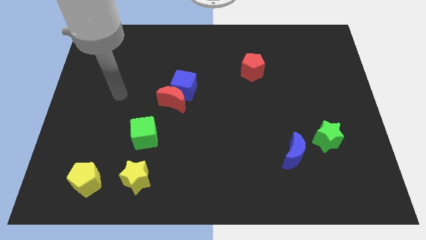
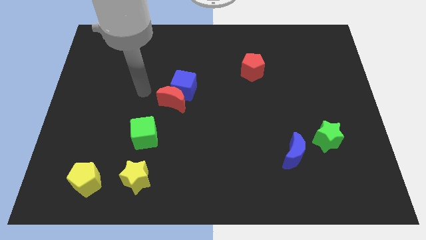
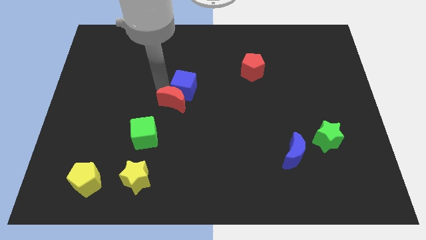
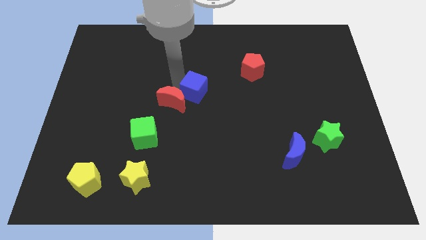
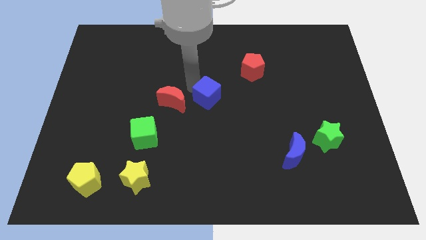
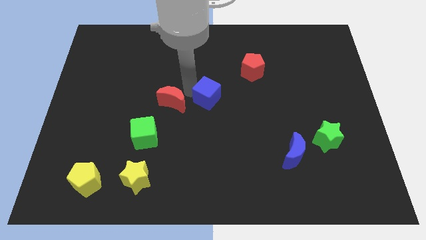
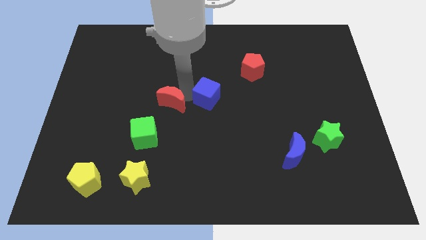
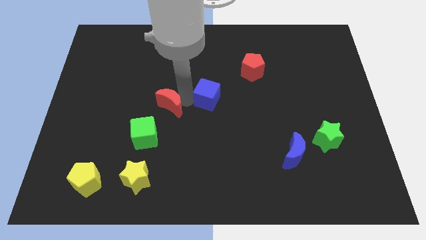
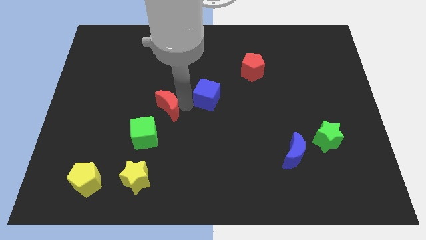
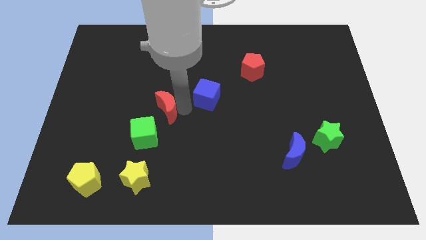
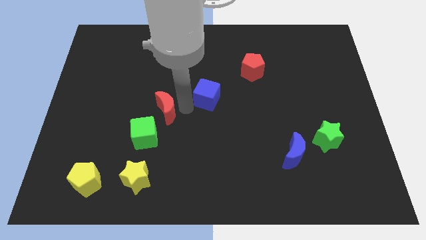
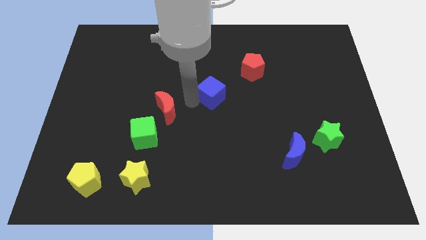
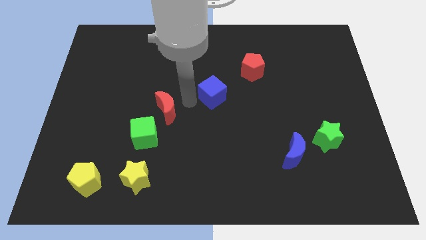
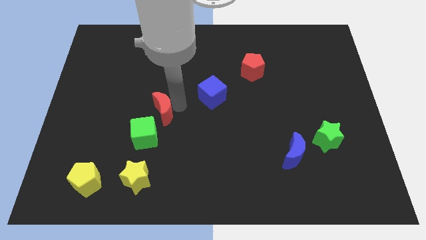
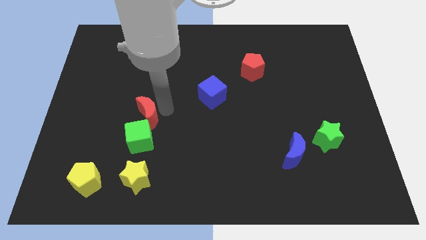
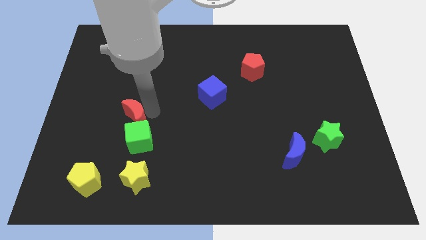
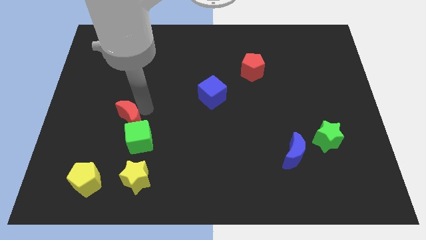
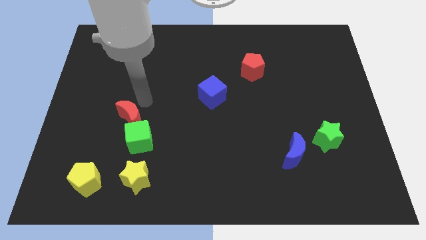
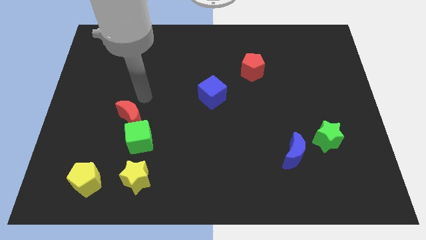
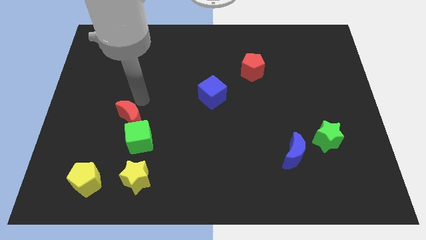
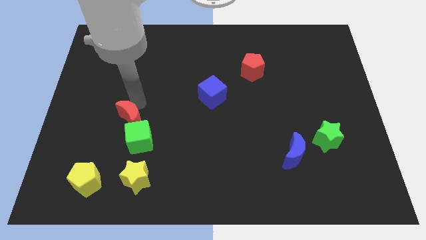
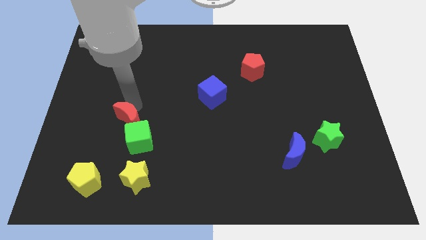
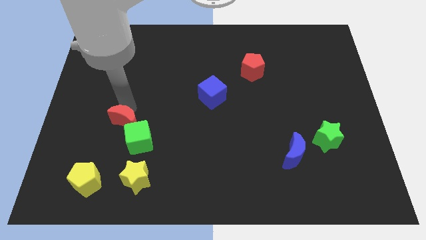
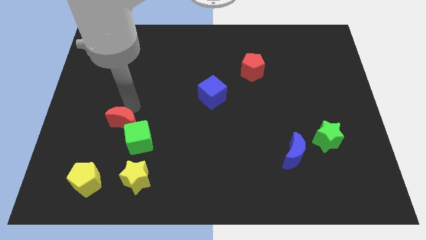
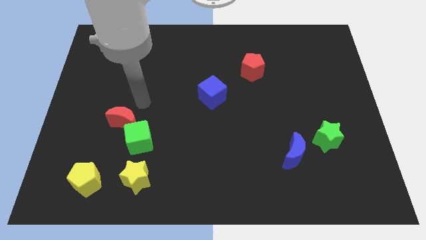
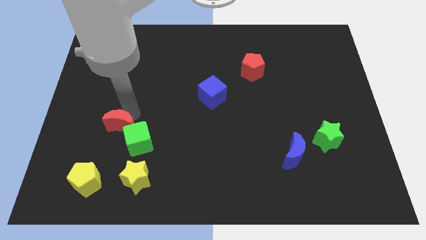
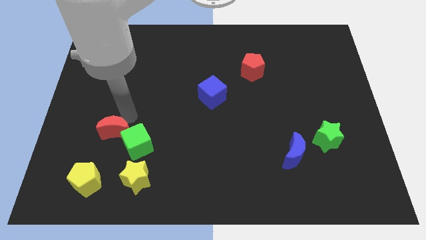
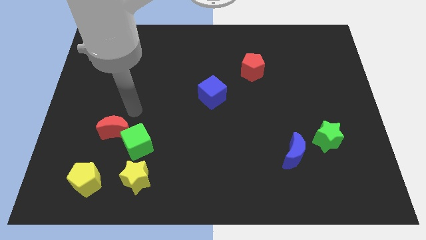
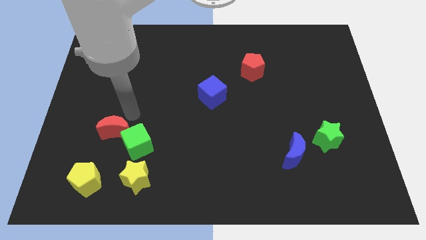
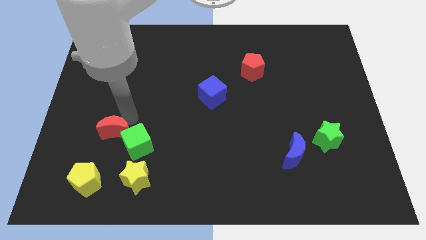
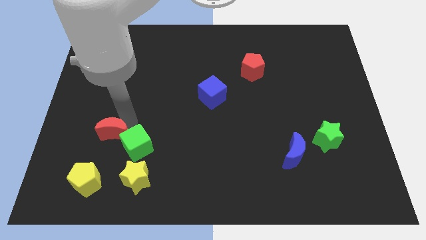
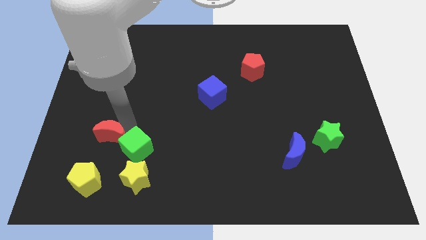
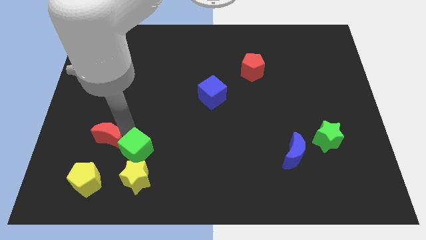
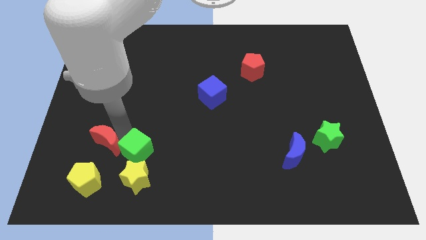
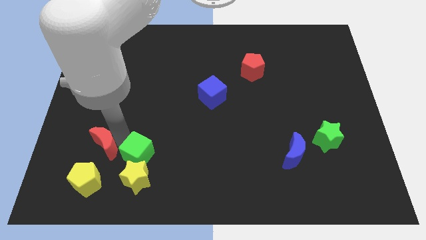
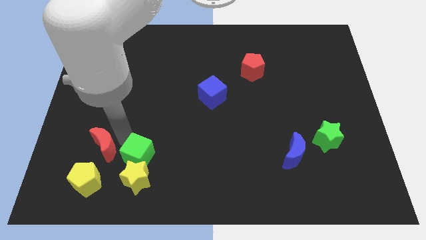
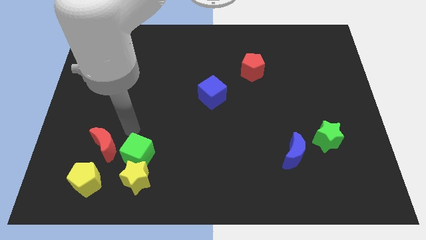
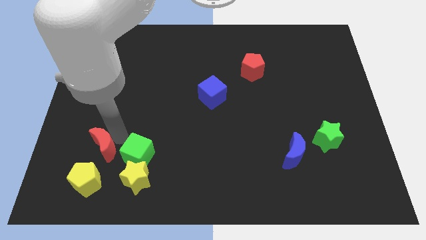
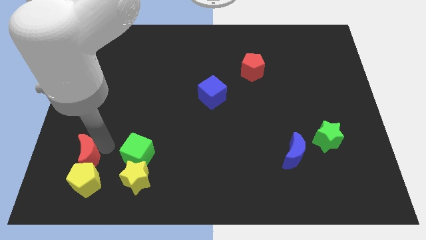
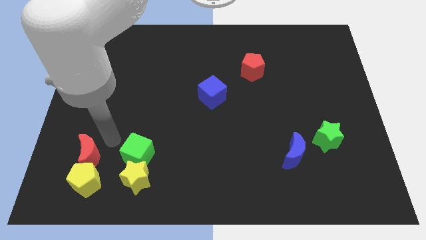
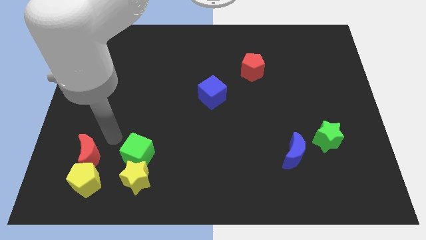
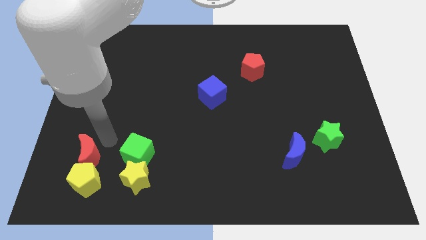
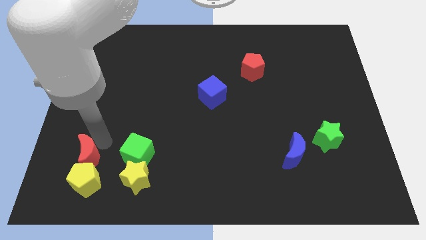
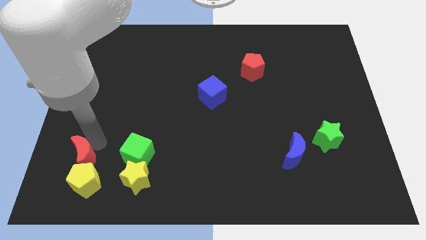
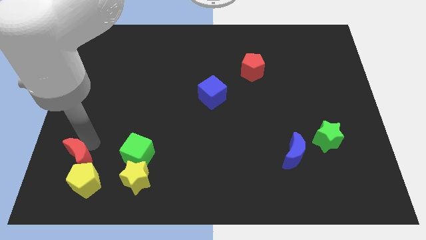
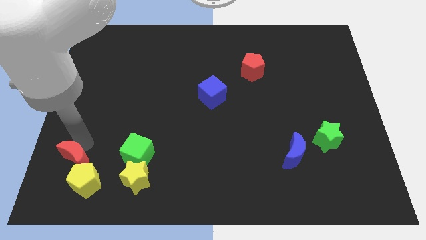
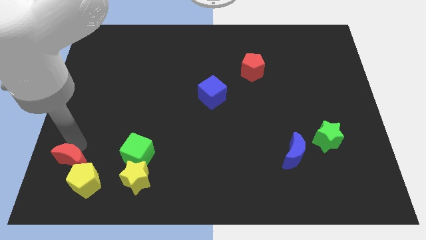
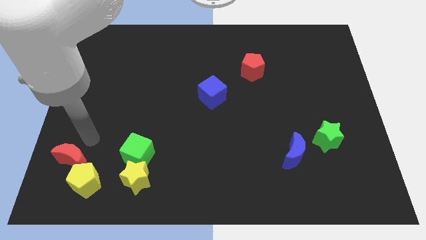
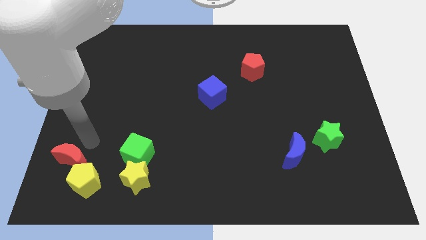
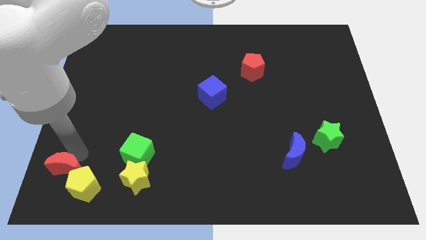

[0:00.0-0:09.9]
push the red moon to the bottom left of the board

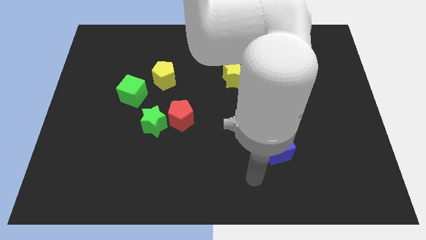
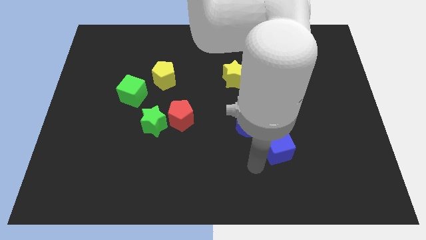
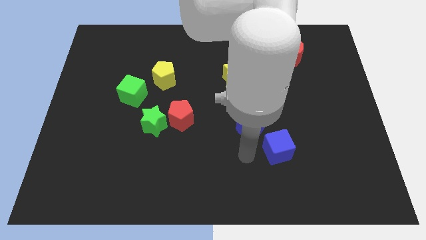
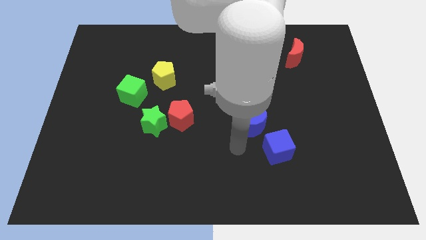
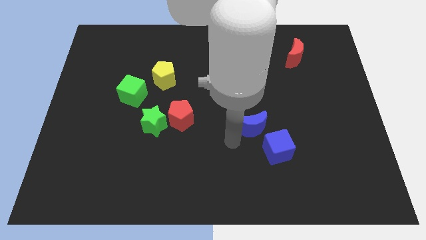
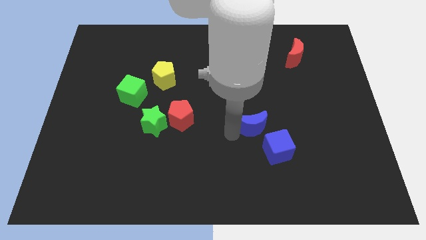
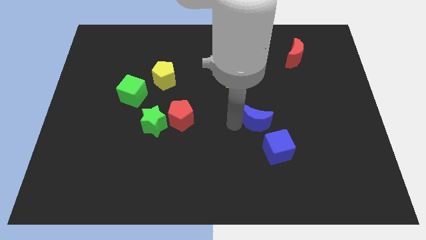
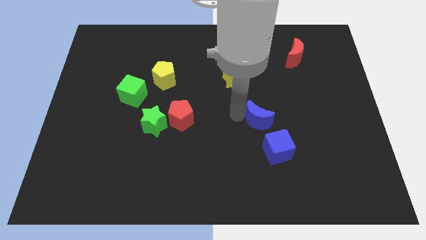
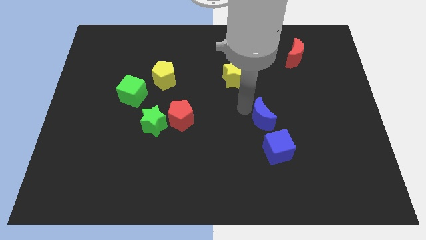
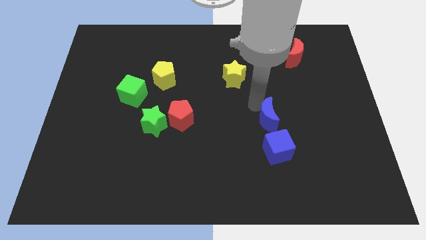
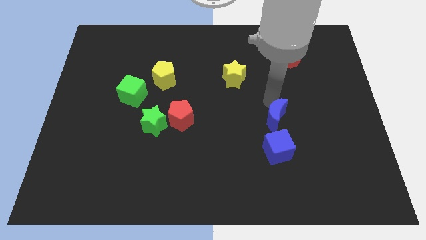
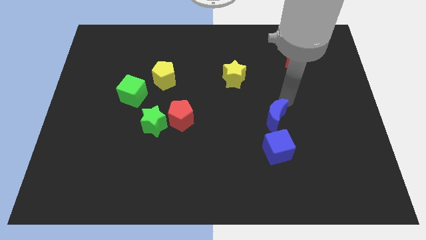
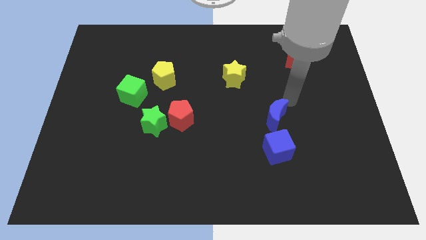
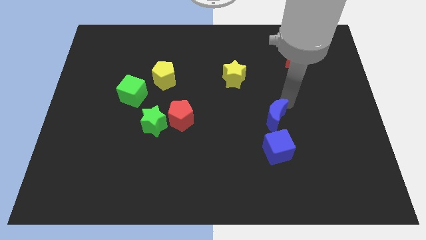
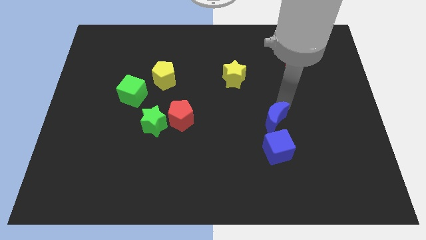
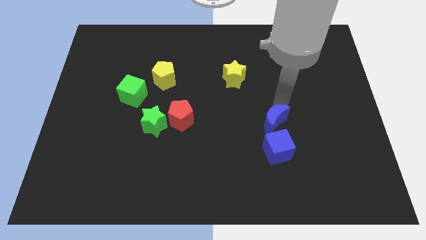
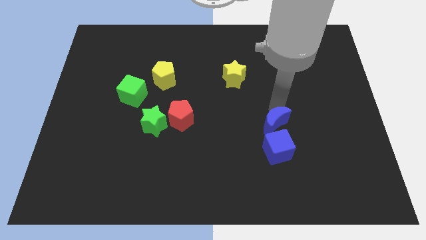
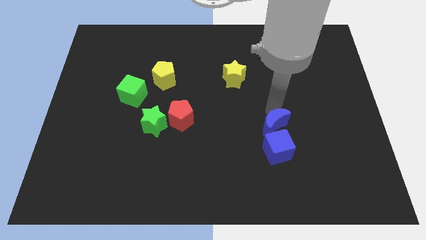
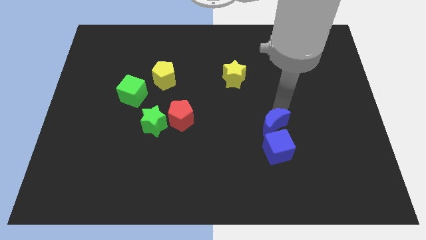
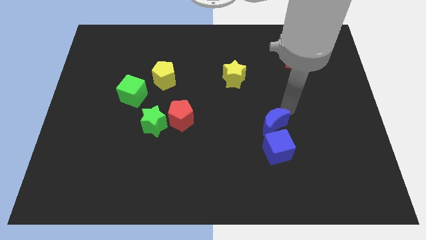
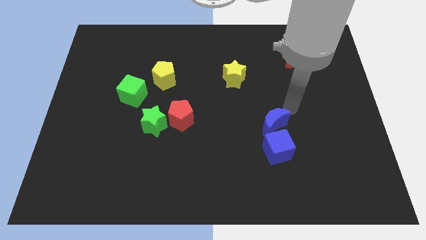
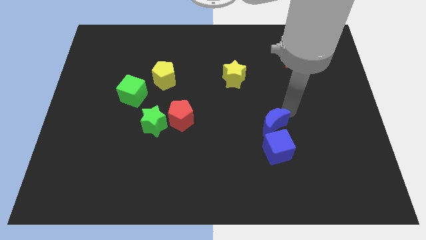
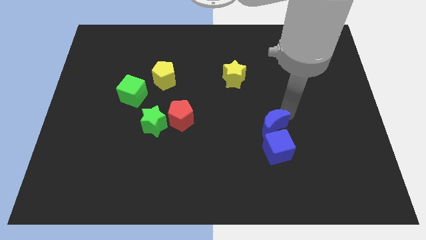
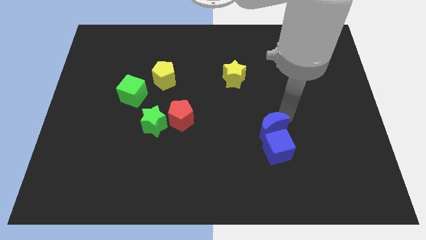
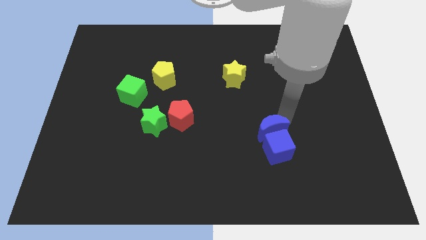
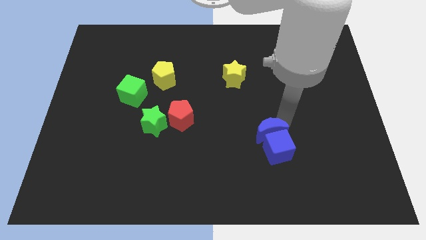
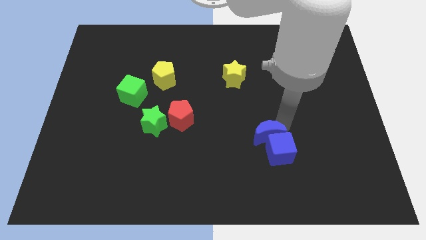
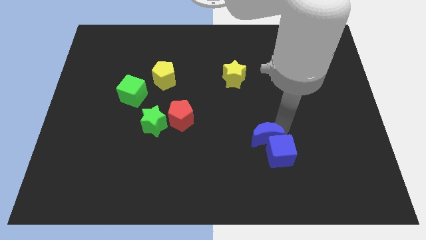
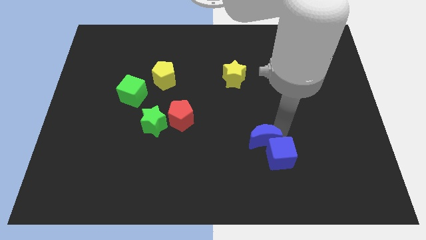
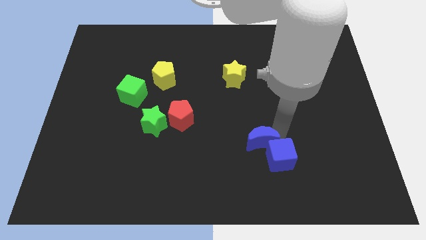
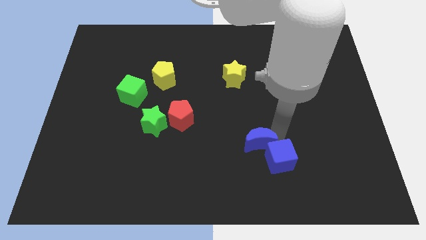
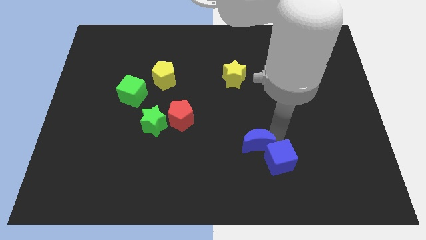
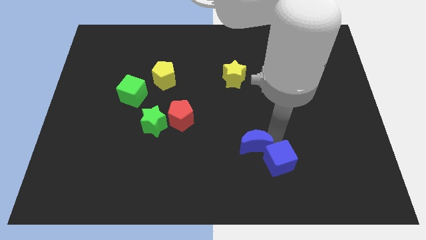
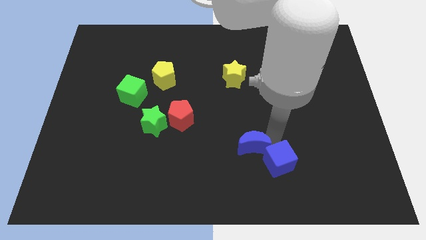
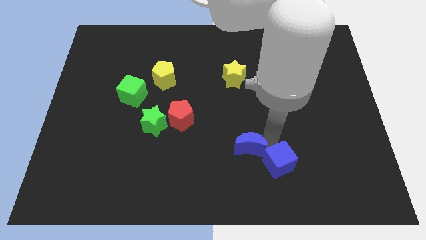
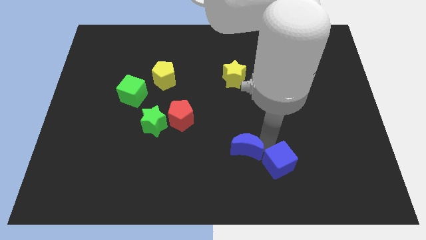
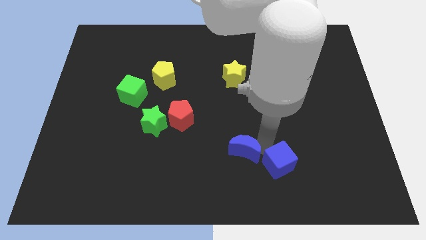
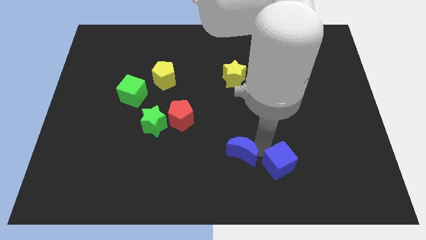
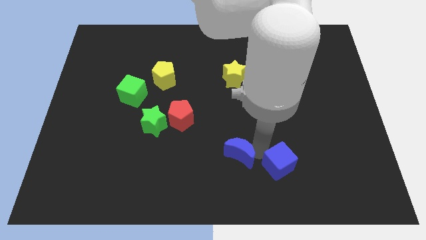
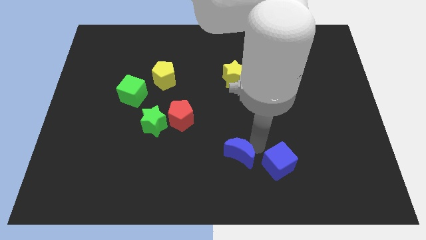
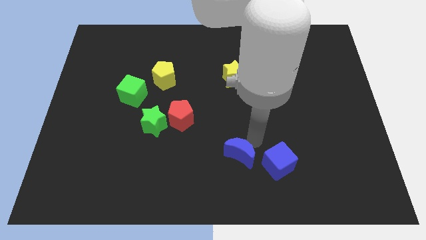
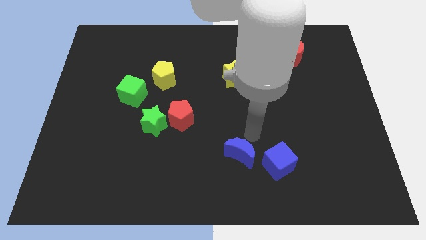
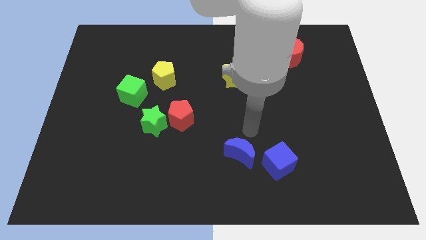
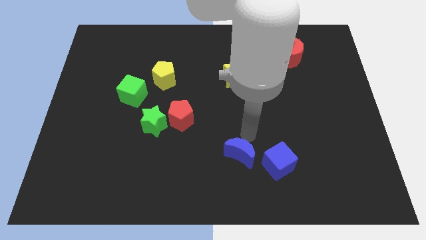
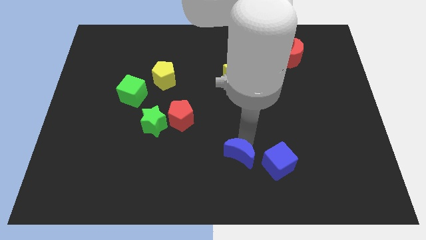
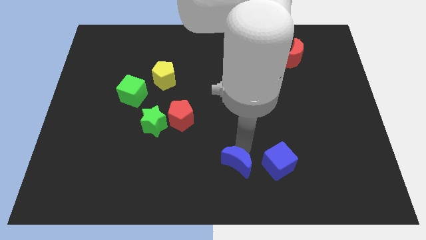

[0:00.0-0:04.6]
push the blue moon to the bottom
